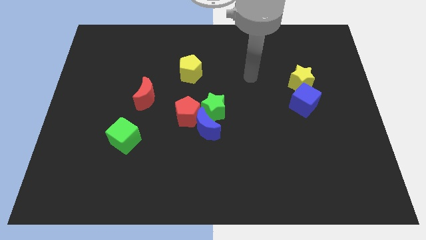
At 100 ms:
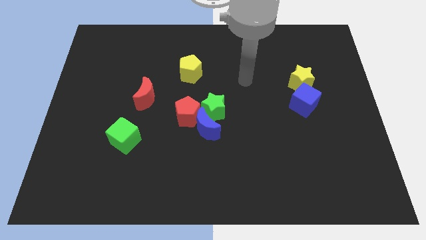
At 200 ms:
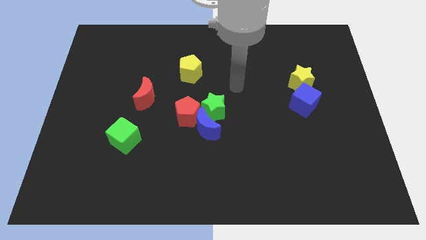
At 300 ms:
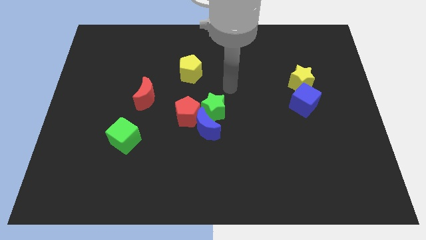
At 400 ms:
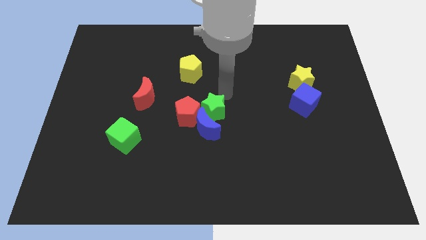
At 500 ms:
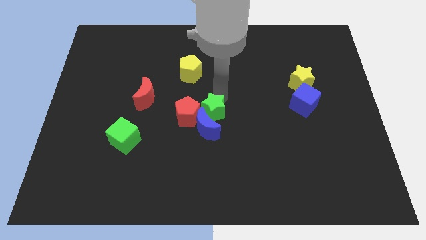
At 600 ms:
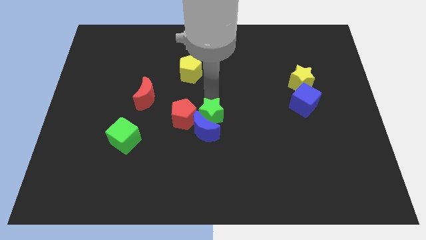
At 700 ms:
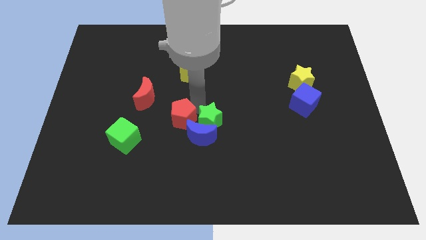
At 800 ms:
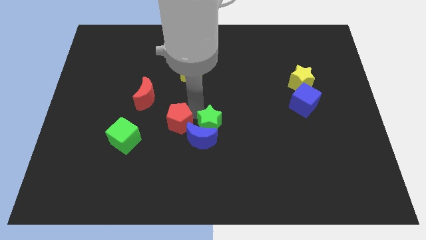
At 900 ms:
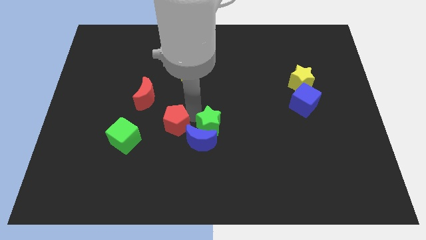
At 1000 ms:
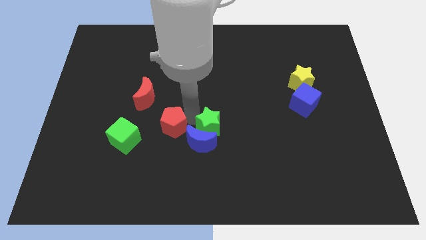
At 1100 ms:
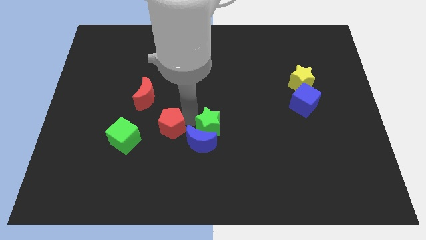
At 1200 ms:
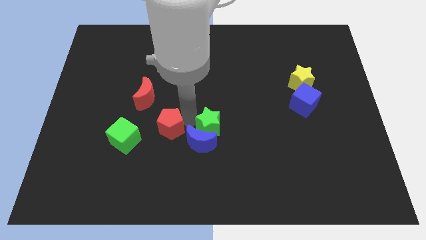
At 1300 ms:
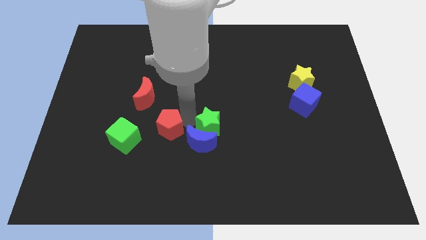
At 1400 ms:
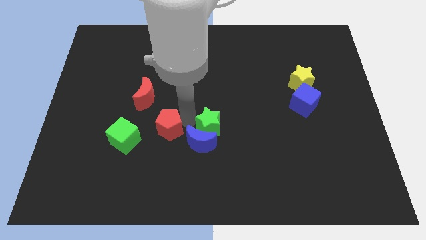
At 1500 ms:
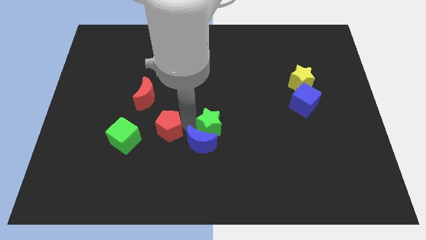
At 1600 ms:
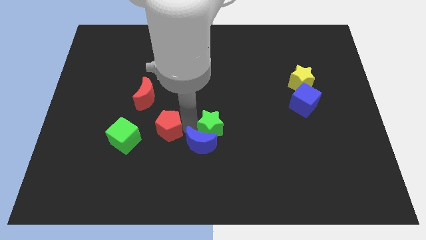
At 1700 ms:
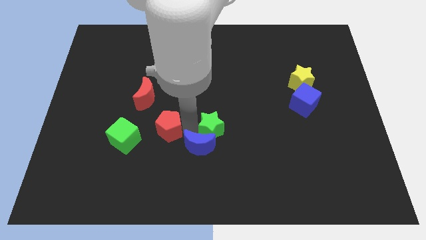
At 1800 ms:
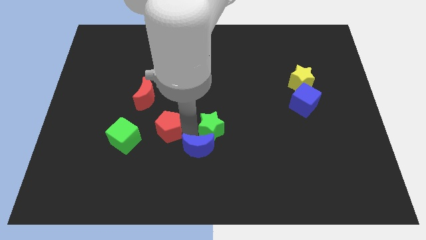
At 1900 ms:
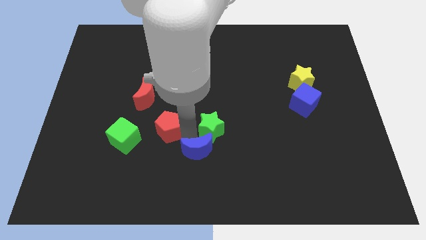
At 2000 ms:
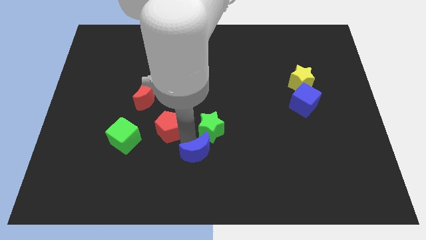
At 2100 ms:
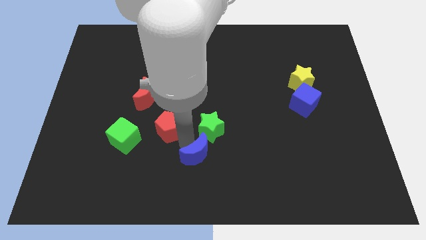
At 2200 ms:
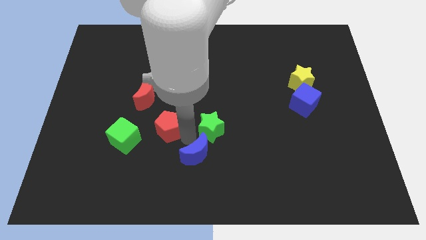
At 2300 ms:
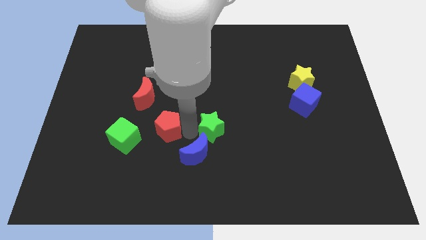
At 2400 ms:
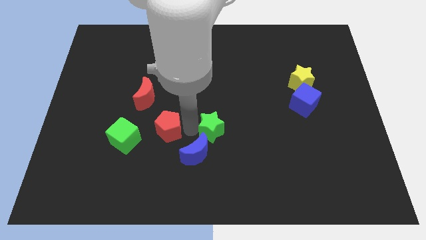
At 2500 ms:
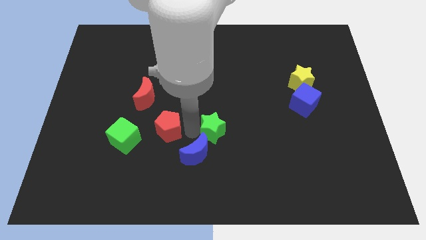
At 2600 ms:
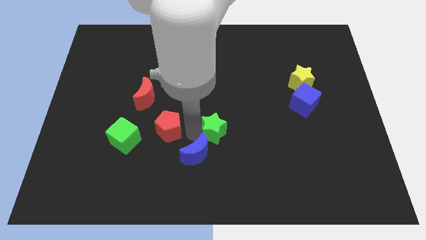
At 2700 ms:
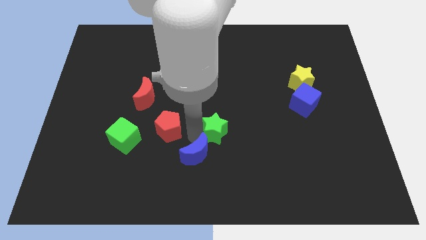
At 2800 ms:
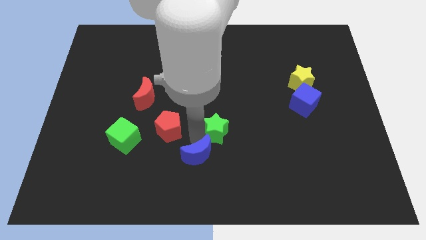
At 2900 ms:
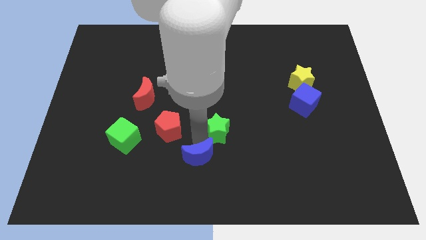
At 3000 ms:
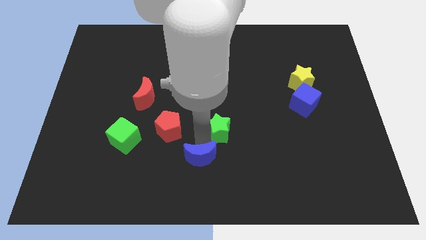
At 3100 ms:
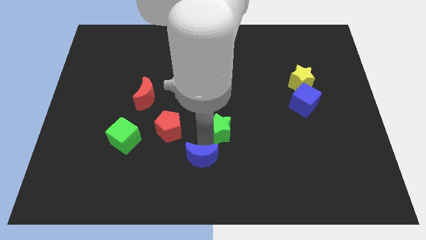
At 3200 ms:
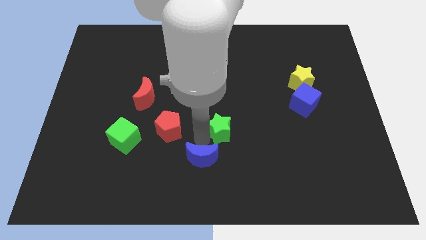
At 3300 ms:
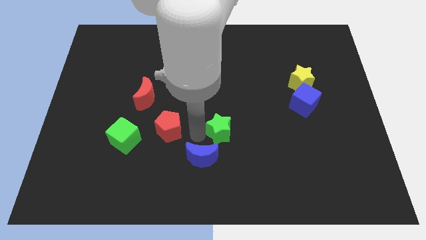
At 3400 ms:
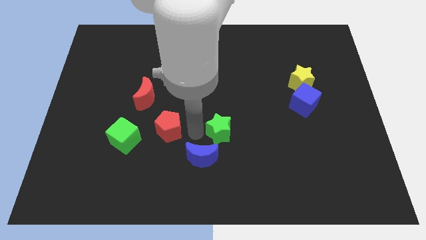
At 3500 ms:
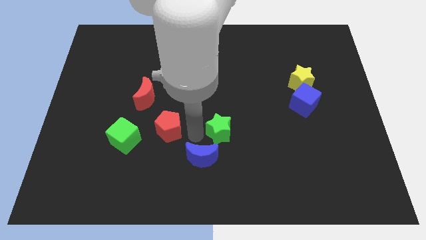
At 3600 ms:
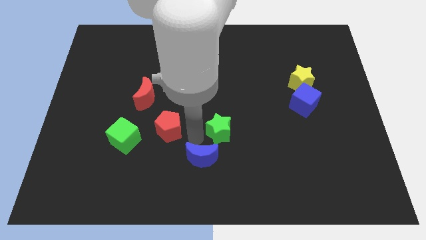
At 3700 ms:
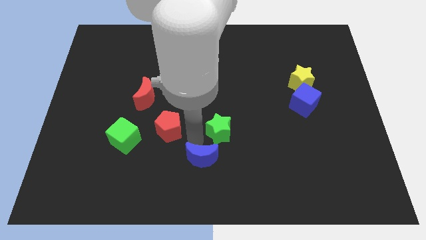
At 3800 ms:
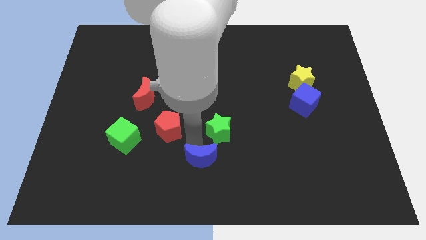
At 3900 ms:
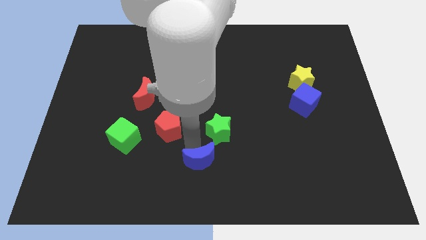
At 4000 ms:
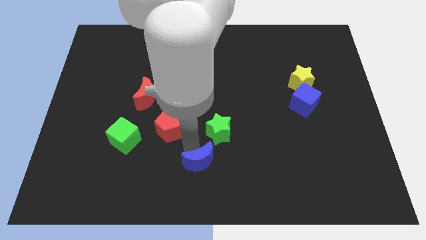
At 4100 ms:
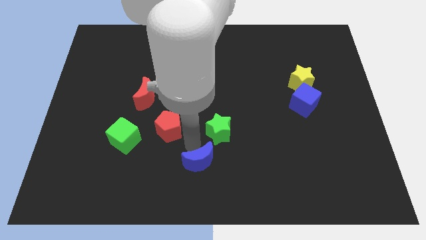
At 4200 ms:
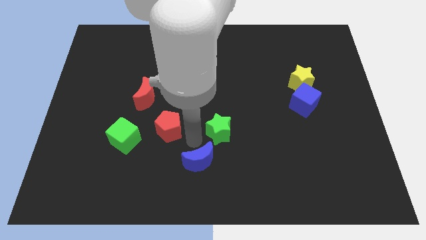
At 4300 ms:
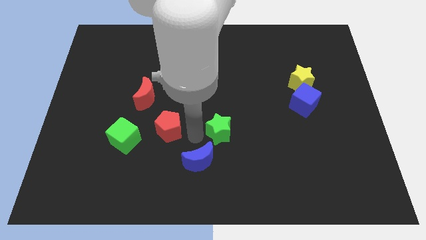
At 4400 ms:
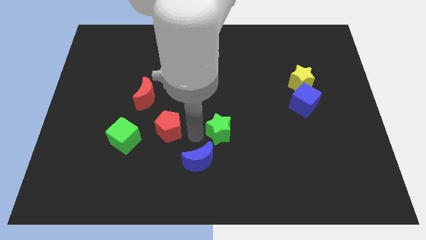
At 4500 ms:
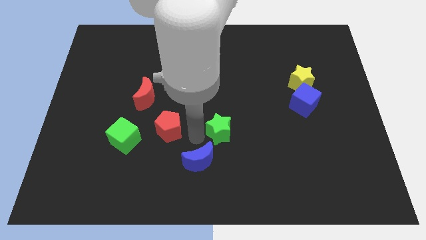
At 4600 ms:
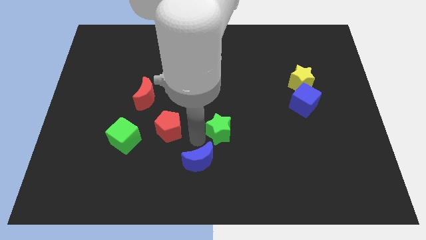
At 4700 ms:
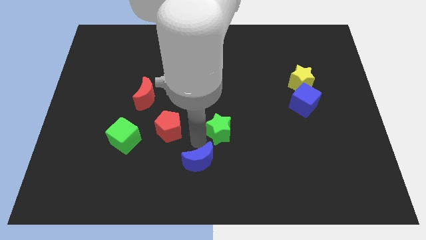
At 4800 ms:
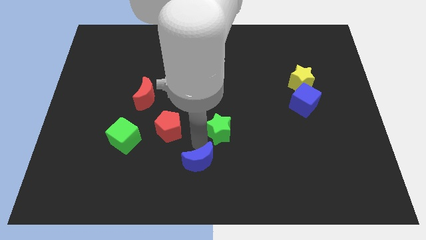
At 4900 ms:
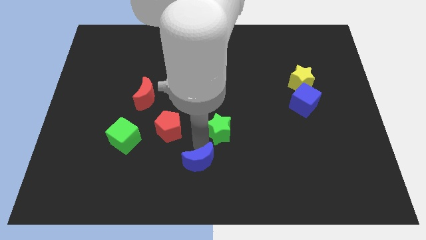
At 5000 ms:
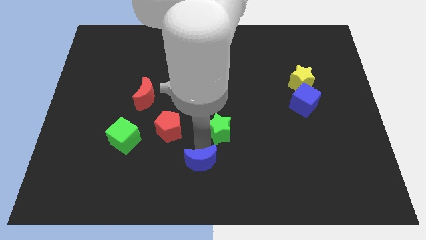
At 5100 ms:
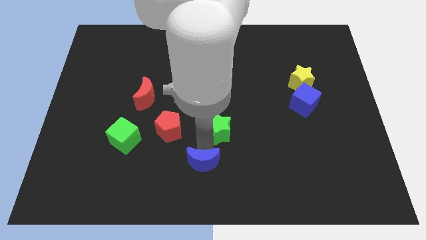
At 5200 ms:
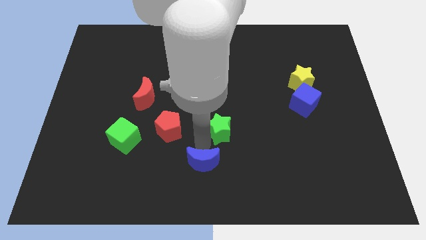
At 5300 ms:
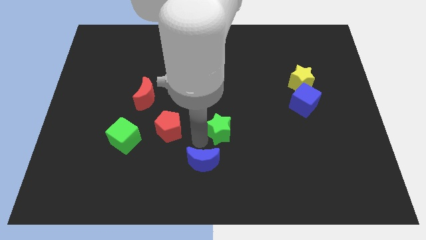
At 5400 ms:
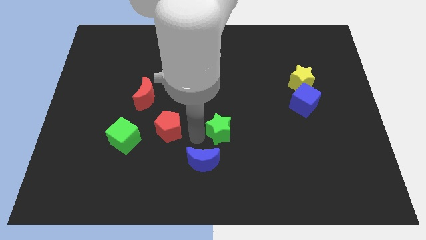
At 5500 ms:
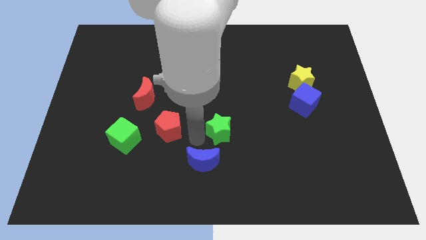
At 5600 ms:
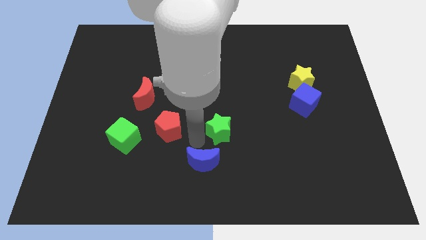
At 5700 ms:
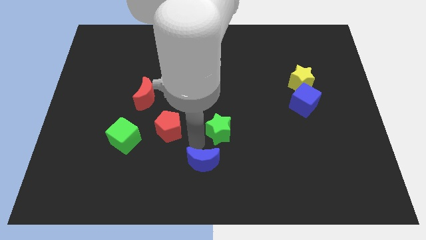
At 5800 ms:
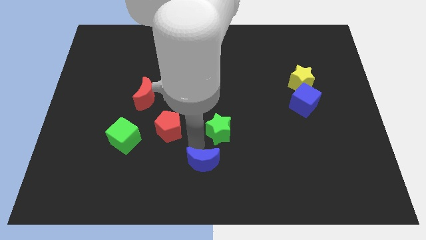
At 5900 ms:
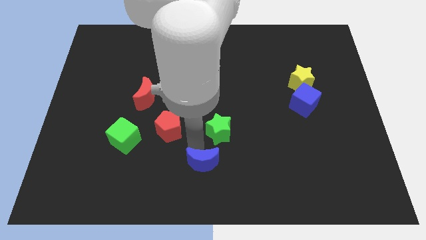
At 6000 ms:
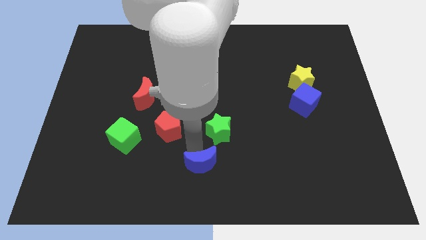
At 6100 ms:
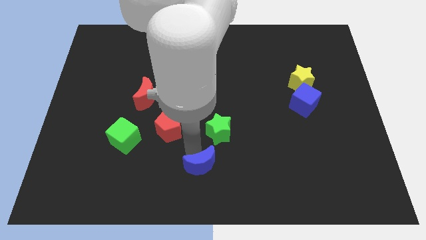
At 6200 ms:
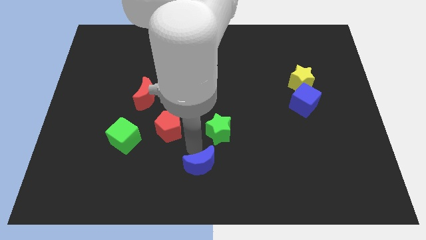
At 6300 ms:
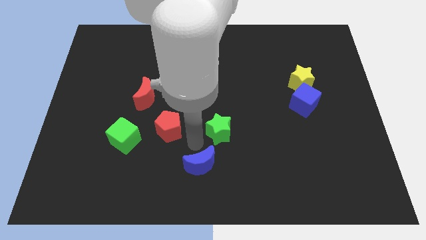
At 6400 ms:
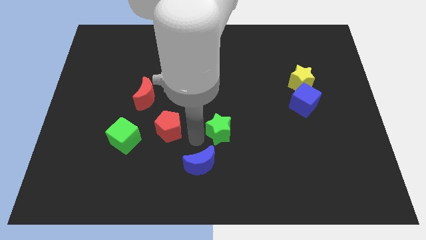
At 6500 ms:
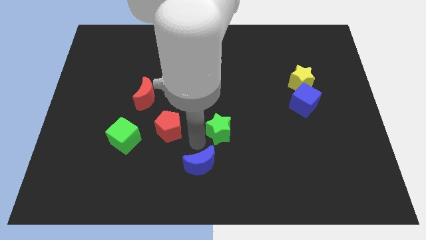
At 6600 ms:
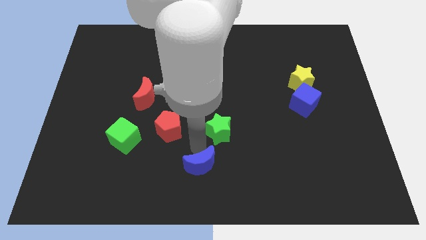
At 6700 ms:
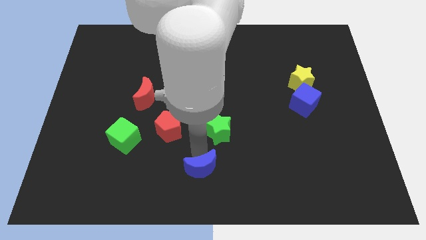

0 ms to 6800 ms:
pull the blue moon apart from the green star and red pentagon

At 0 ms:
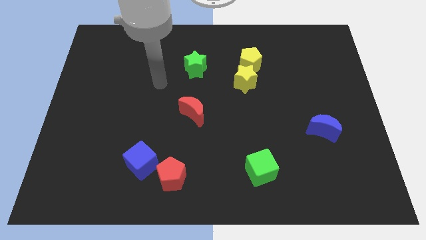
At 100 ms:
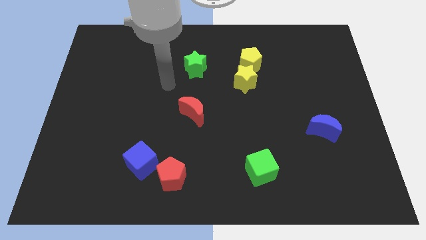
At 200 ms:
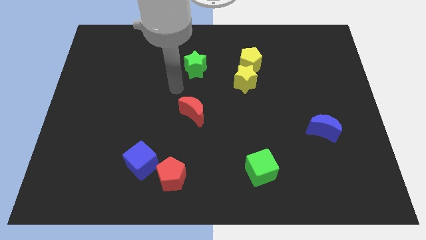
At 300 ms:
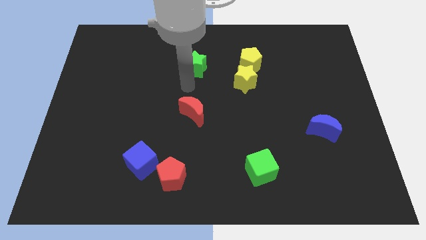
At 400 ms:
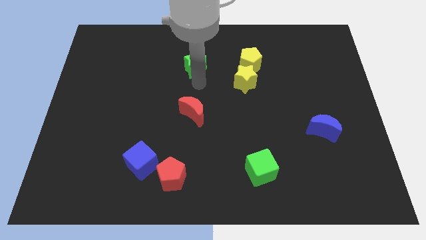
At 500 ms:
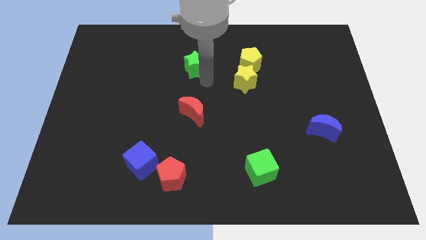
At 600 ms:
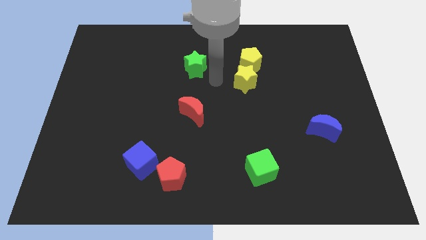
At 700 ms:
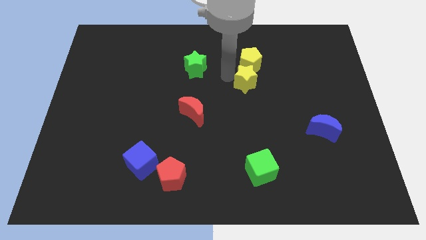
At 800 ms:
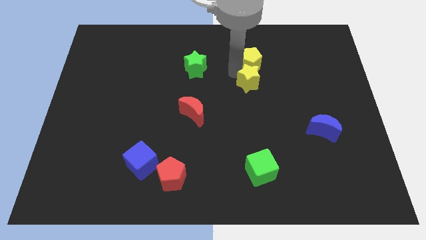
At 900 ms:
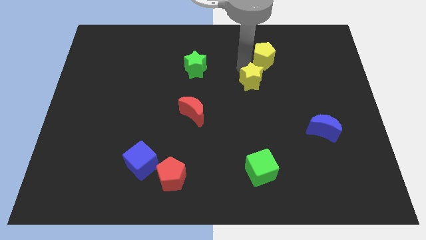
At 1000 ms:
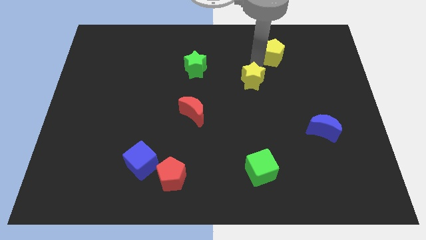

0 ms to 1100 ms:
separate the yellow star from the yellow pentagon

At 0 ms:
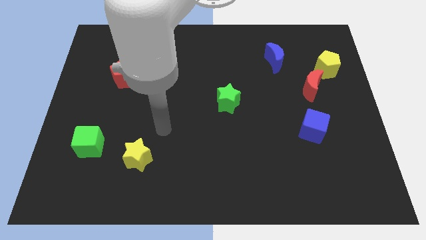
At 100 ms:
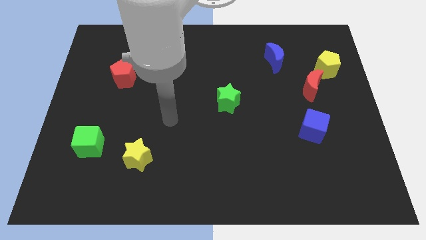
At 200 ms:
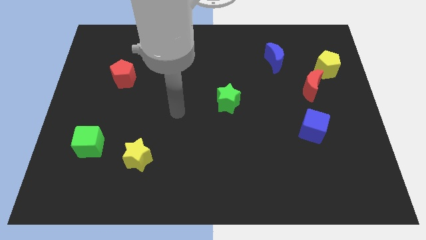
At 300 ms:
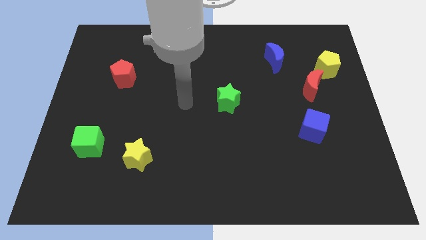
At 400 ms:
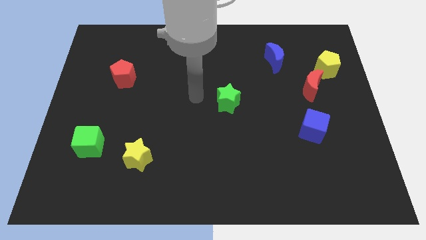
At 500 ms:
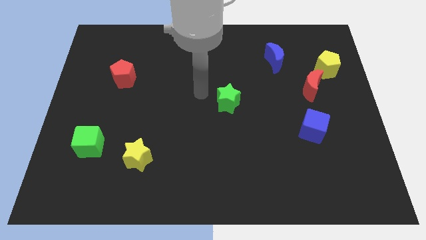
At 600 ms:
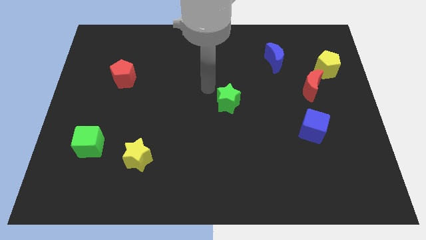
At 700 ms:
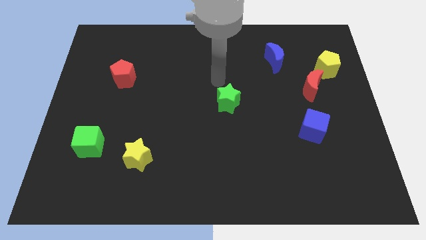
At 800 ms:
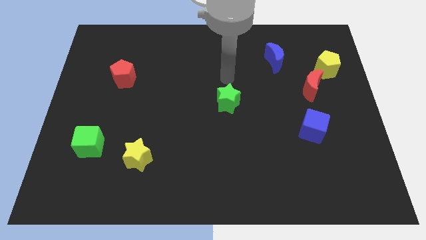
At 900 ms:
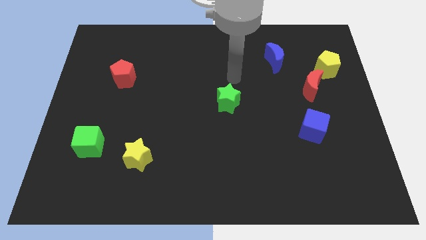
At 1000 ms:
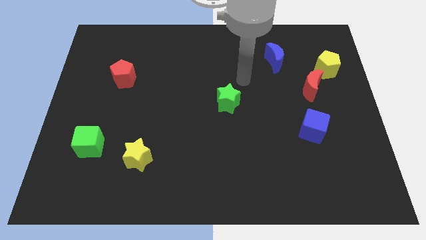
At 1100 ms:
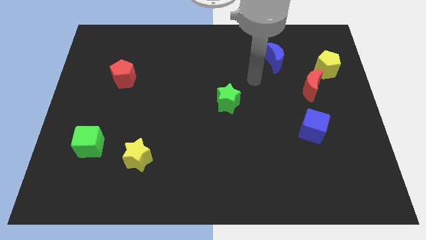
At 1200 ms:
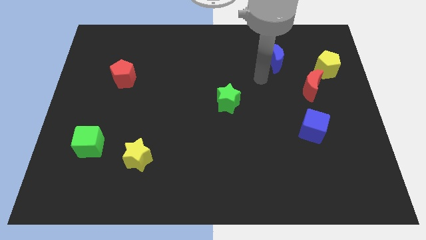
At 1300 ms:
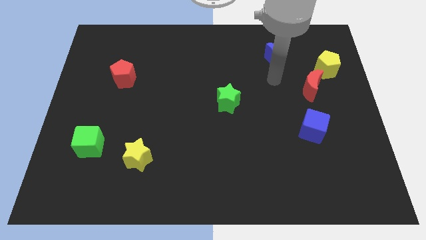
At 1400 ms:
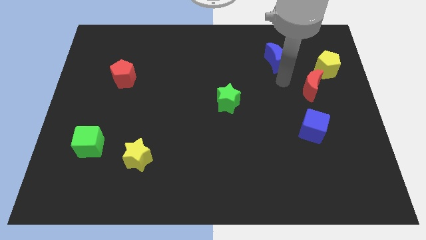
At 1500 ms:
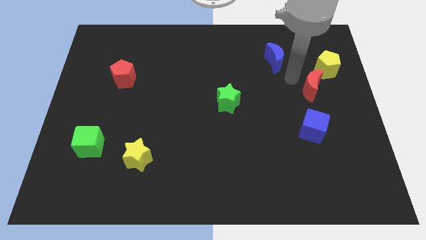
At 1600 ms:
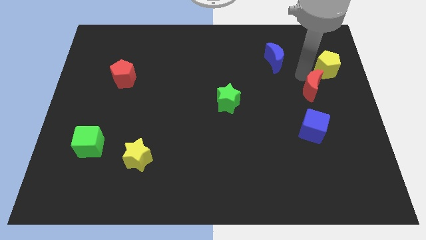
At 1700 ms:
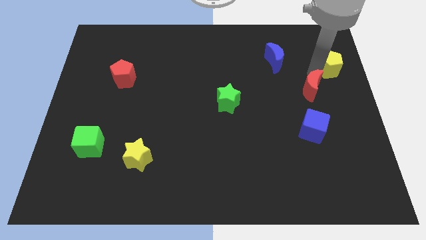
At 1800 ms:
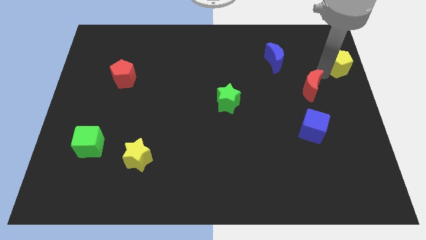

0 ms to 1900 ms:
move the red moon away from the yellow pentagon
